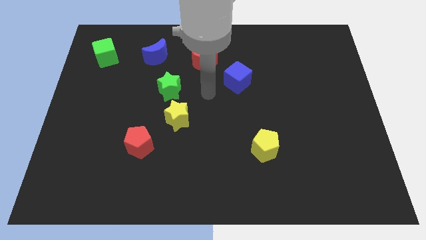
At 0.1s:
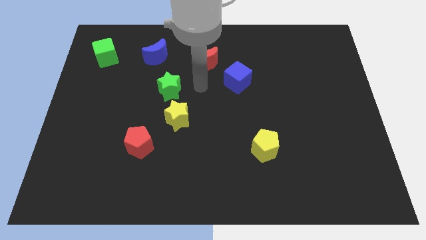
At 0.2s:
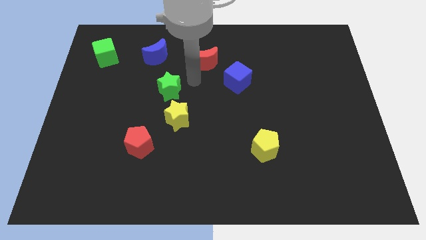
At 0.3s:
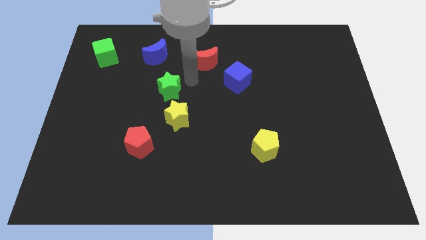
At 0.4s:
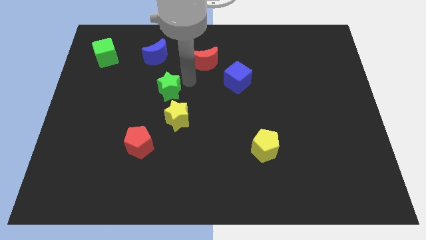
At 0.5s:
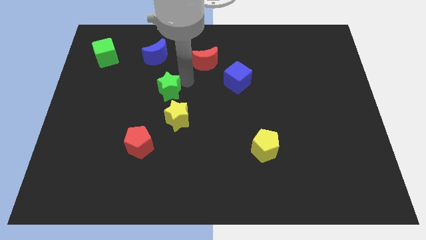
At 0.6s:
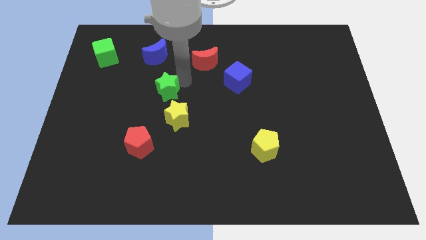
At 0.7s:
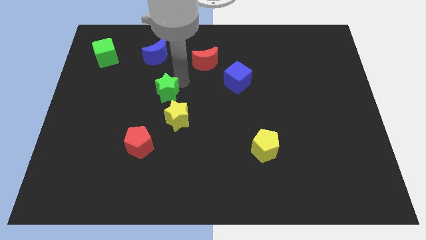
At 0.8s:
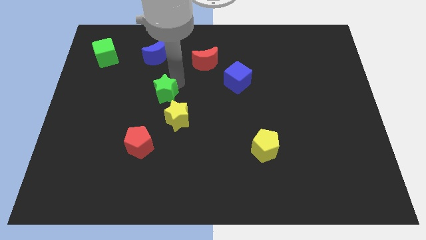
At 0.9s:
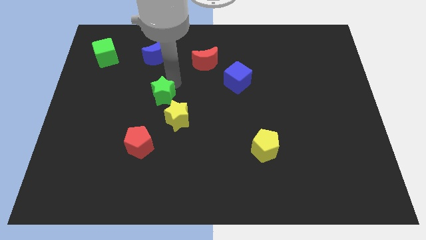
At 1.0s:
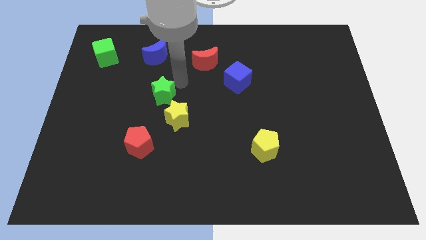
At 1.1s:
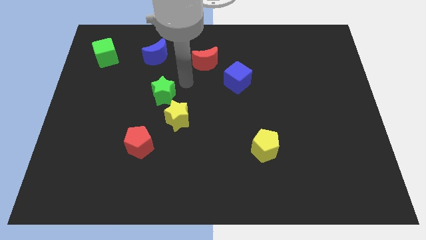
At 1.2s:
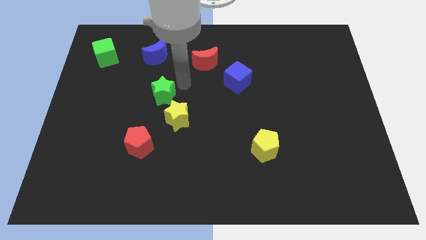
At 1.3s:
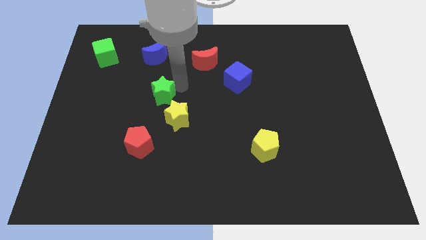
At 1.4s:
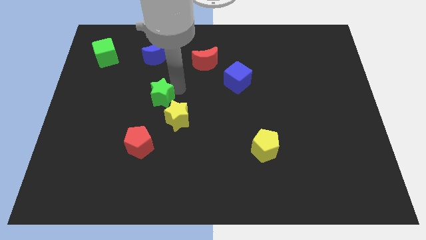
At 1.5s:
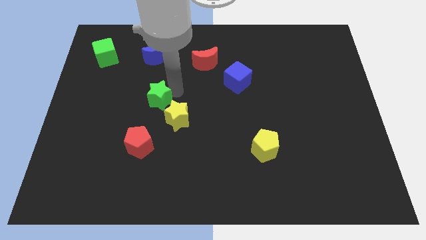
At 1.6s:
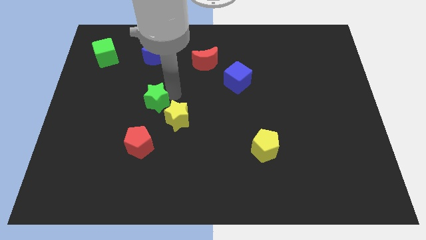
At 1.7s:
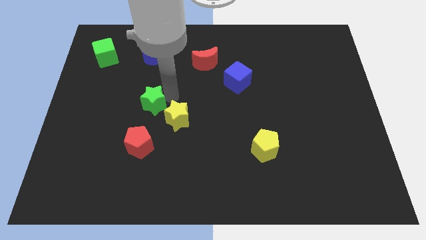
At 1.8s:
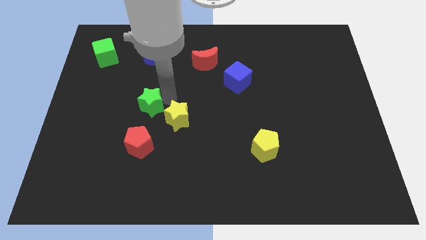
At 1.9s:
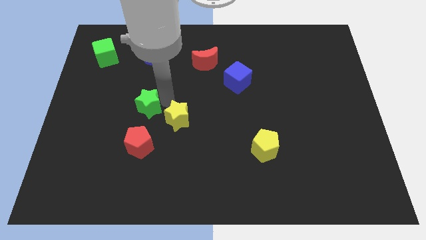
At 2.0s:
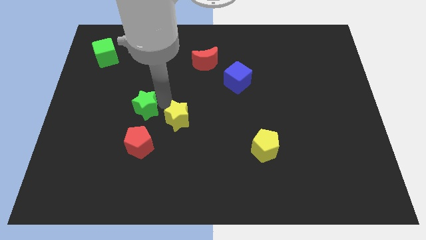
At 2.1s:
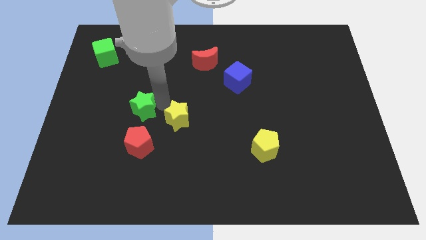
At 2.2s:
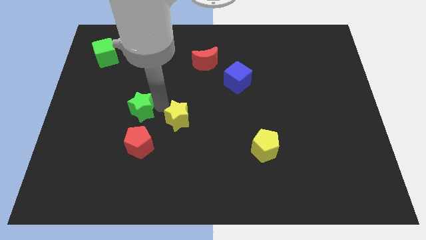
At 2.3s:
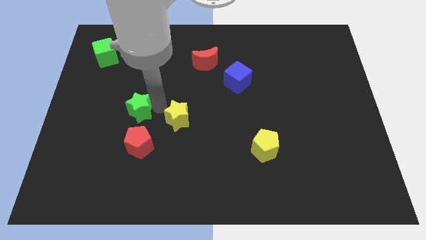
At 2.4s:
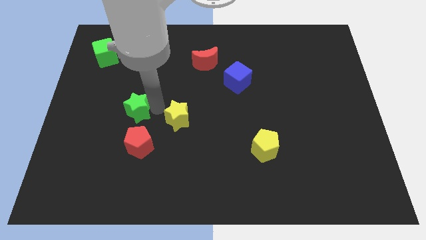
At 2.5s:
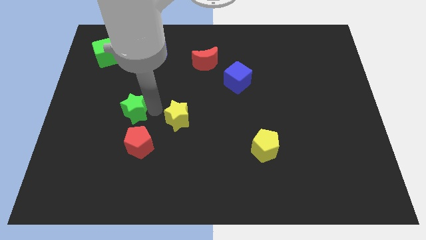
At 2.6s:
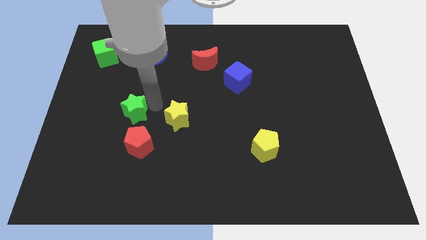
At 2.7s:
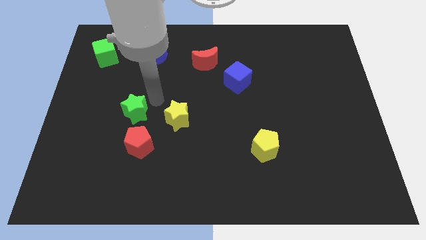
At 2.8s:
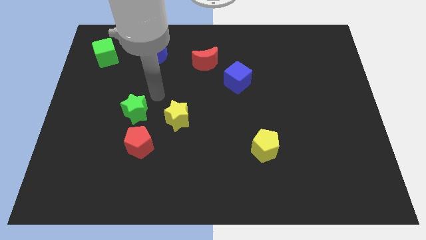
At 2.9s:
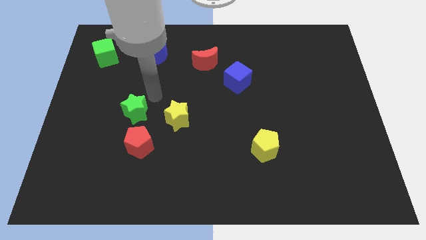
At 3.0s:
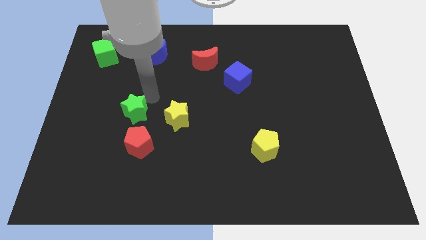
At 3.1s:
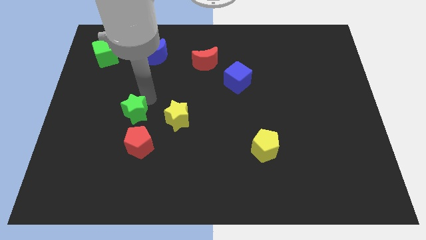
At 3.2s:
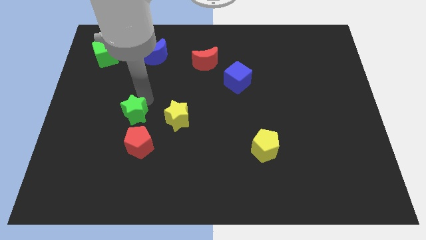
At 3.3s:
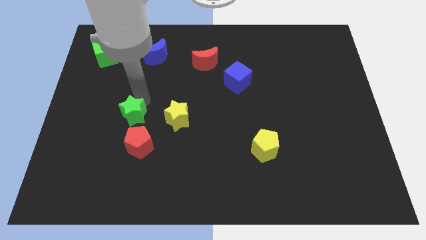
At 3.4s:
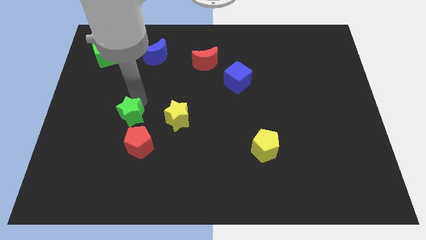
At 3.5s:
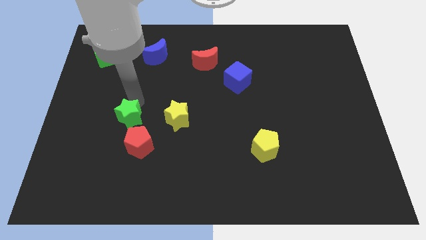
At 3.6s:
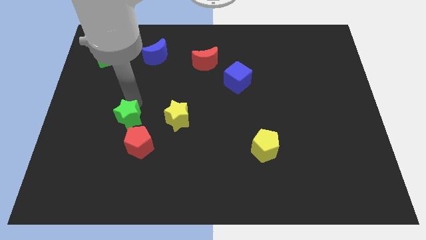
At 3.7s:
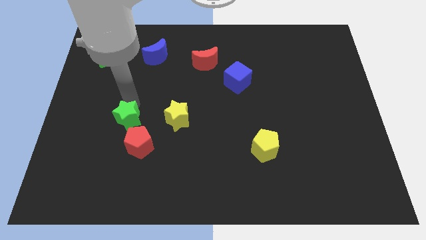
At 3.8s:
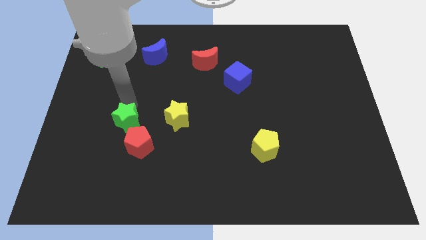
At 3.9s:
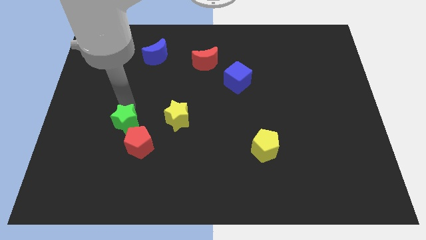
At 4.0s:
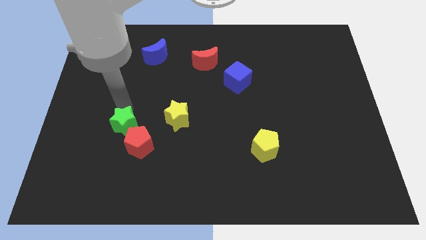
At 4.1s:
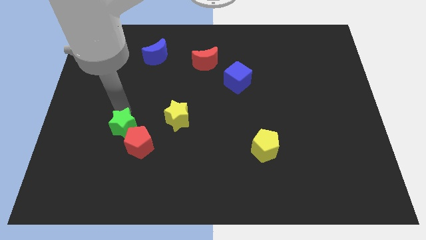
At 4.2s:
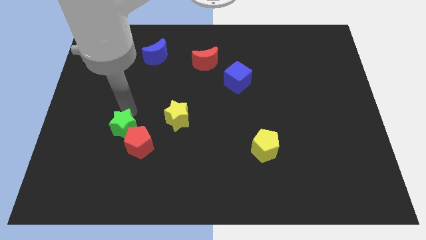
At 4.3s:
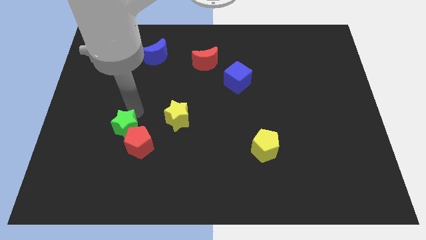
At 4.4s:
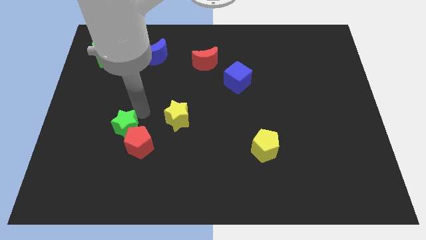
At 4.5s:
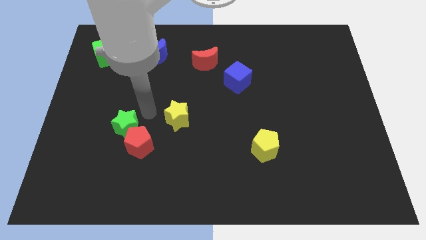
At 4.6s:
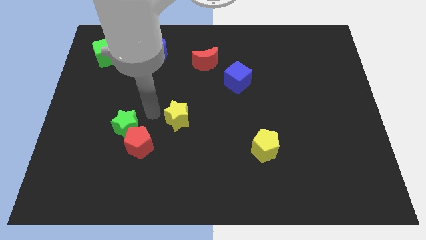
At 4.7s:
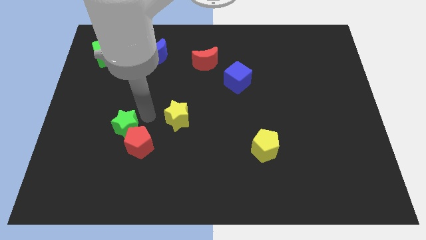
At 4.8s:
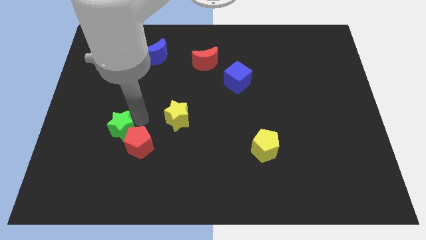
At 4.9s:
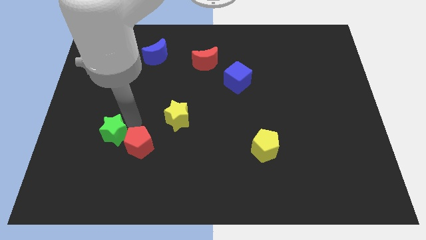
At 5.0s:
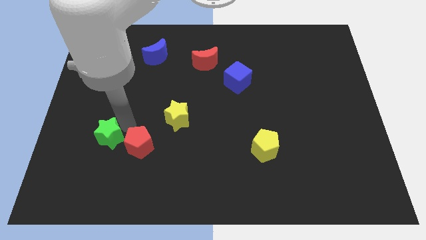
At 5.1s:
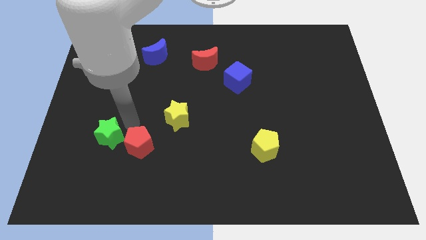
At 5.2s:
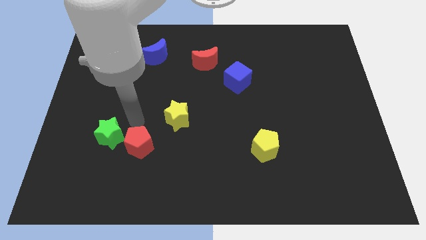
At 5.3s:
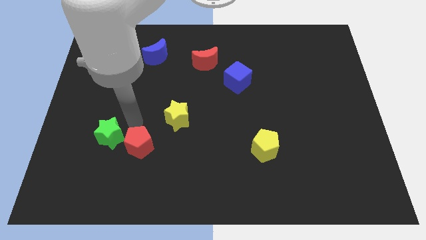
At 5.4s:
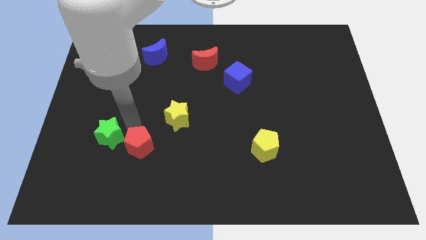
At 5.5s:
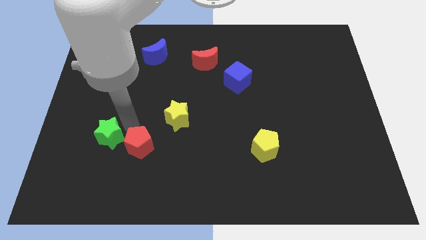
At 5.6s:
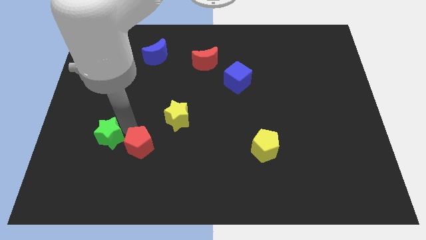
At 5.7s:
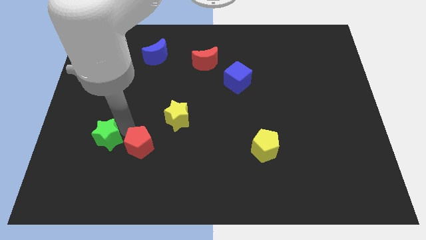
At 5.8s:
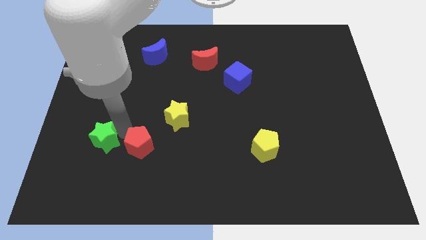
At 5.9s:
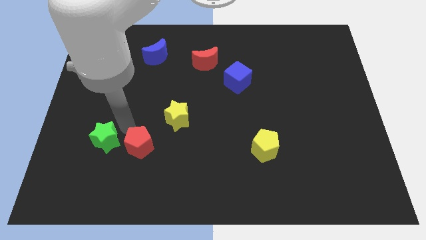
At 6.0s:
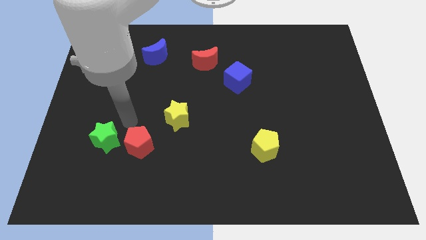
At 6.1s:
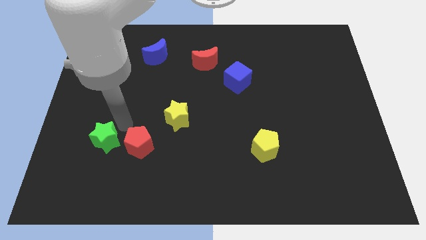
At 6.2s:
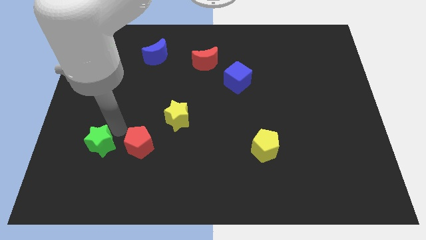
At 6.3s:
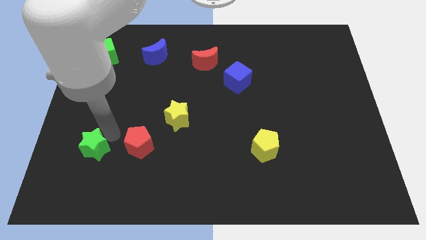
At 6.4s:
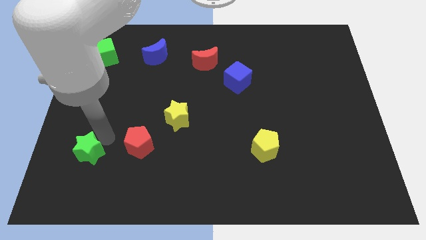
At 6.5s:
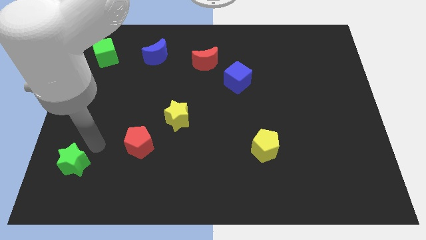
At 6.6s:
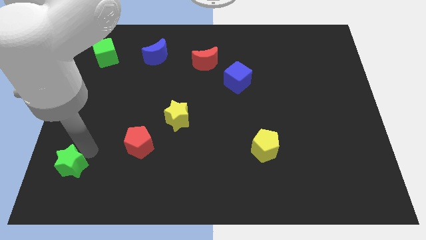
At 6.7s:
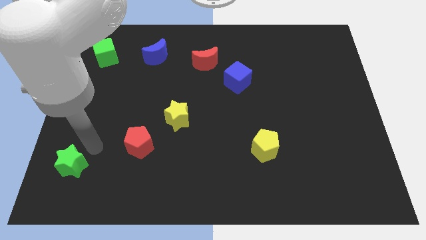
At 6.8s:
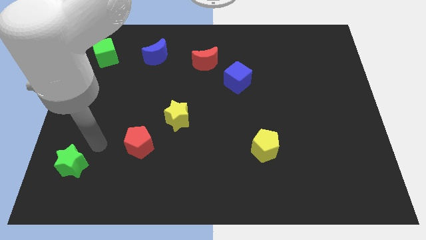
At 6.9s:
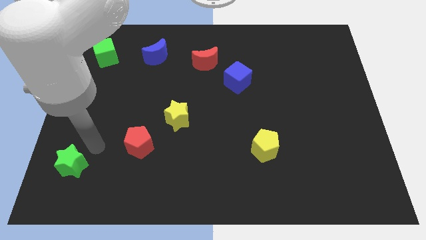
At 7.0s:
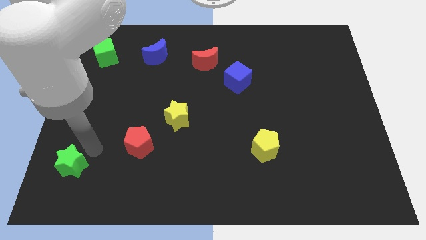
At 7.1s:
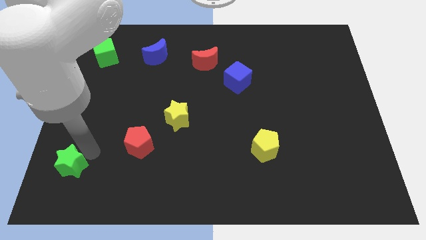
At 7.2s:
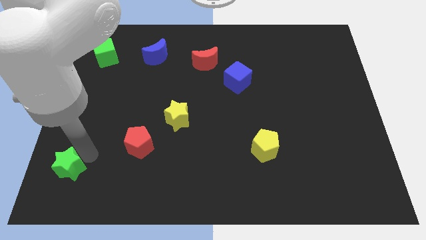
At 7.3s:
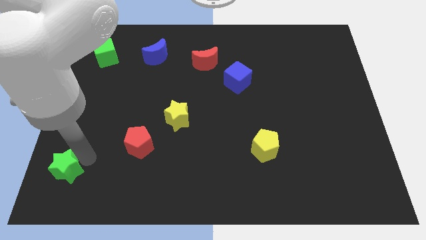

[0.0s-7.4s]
push the green star to the lower left corner
